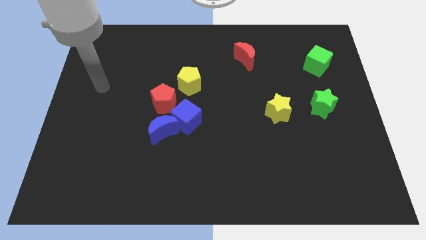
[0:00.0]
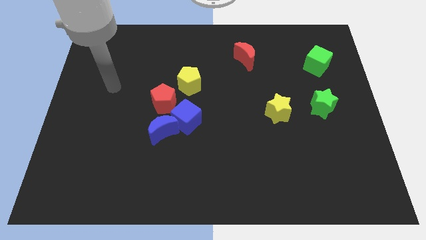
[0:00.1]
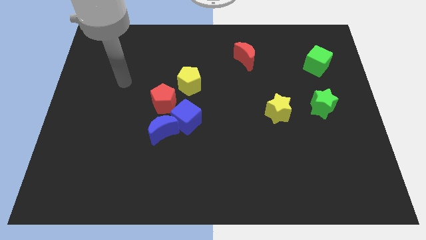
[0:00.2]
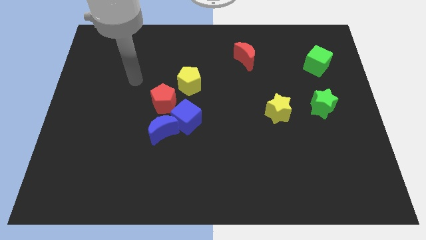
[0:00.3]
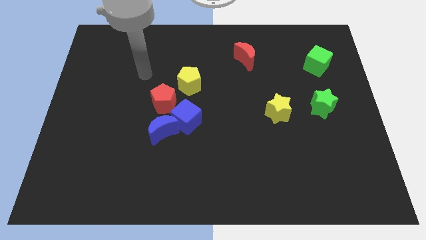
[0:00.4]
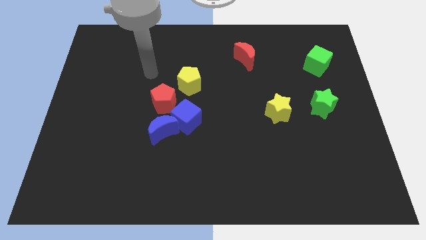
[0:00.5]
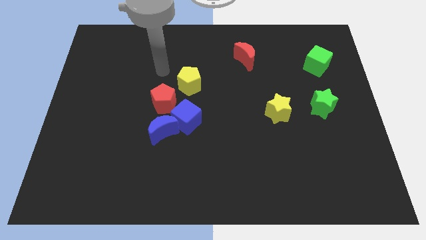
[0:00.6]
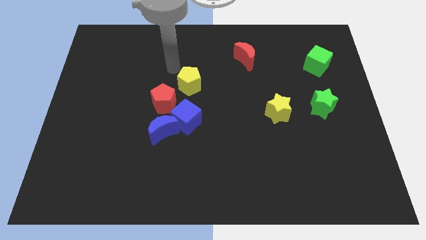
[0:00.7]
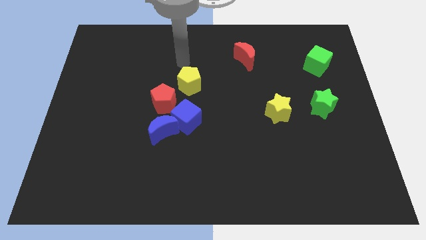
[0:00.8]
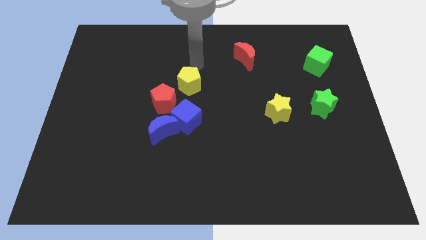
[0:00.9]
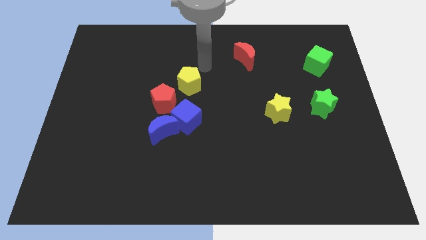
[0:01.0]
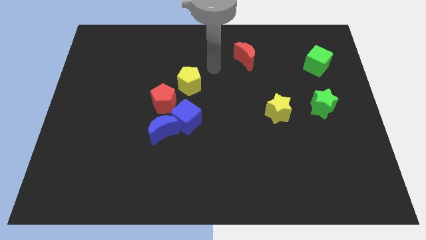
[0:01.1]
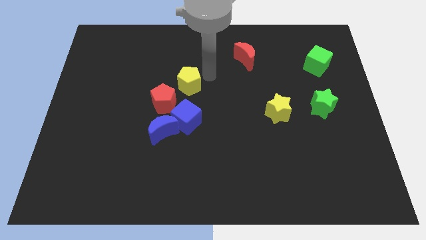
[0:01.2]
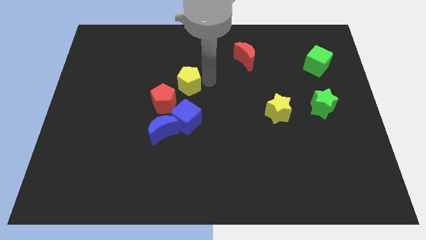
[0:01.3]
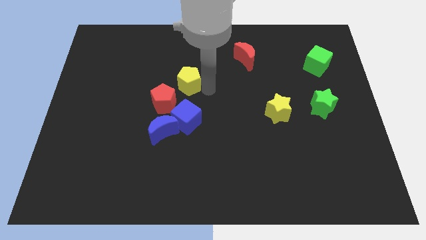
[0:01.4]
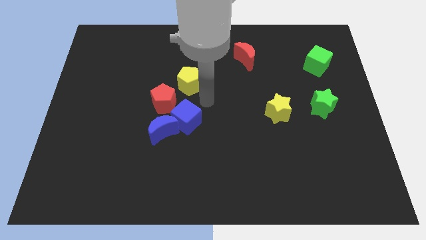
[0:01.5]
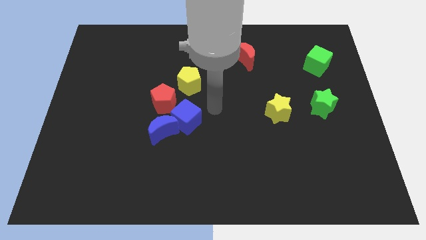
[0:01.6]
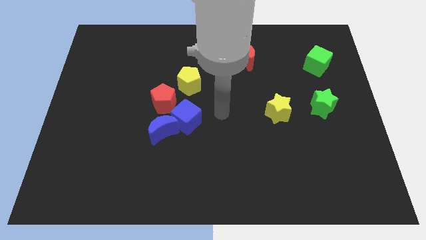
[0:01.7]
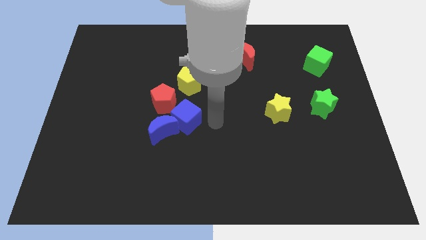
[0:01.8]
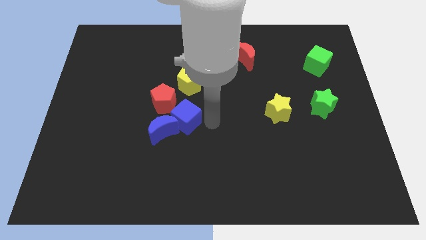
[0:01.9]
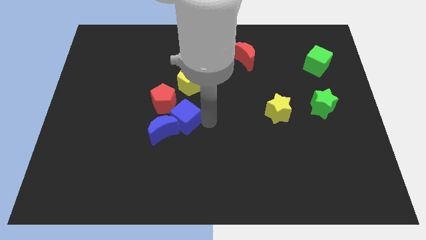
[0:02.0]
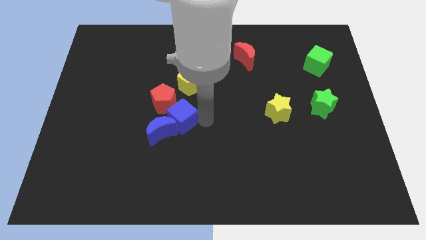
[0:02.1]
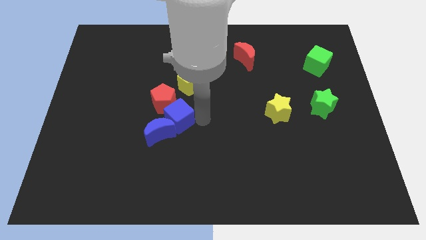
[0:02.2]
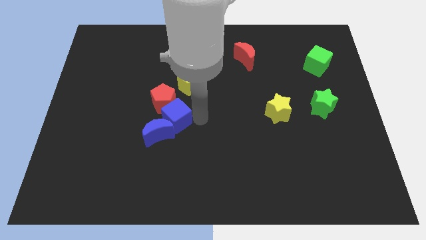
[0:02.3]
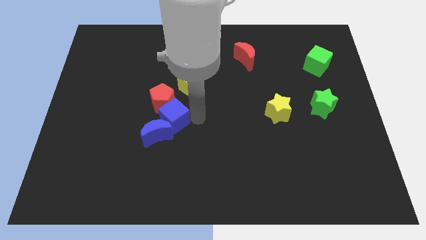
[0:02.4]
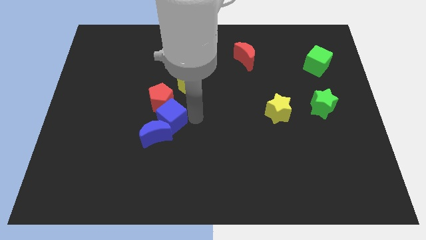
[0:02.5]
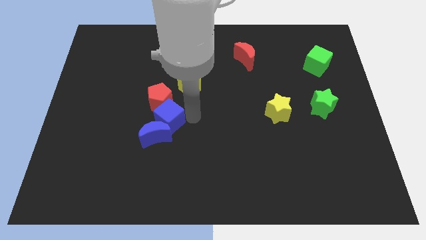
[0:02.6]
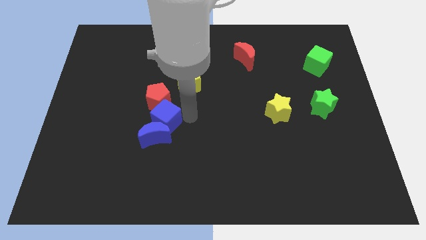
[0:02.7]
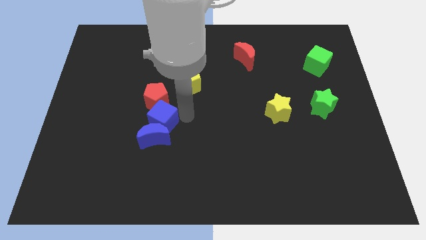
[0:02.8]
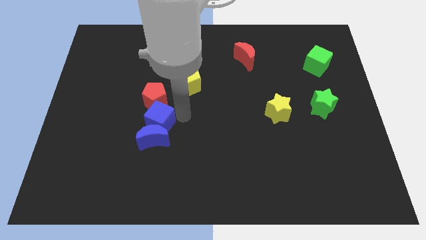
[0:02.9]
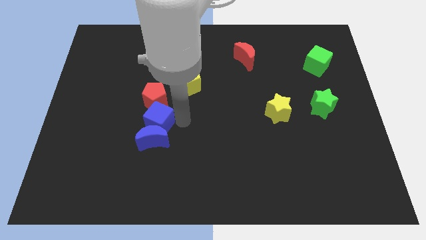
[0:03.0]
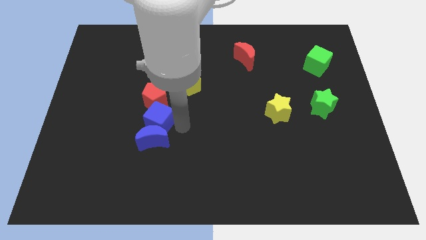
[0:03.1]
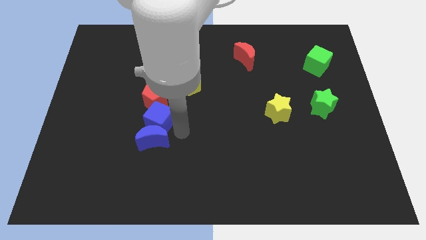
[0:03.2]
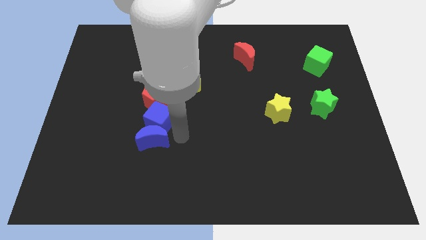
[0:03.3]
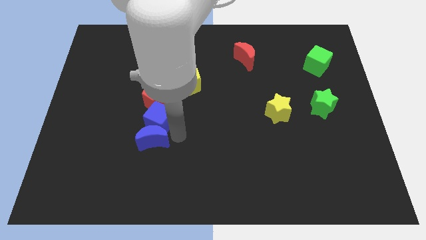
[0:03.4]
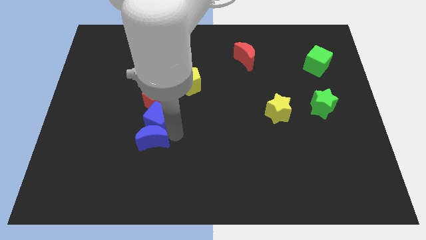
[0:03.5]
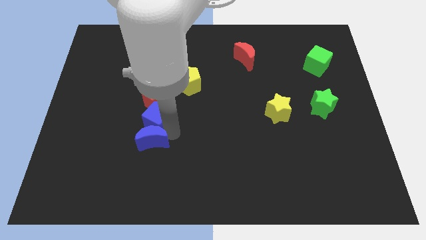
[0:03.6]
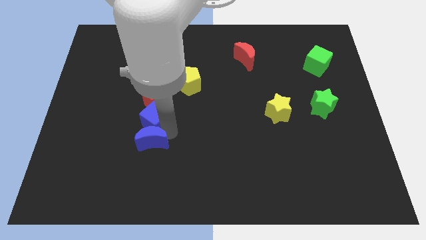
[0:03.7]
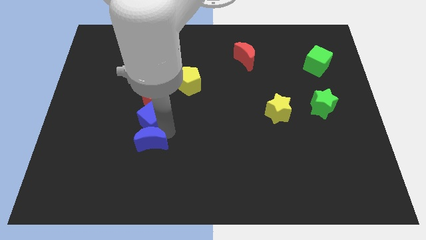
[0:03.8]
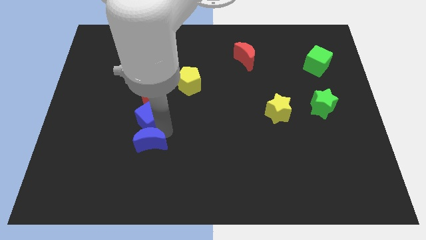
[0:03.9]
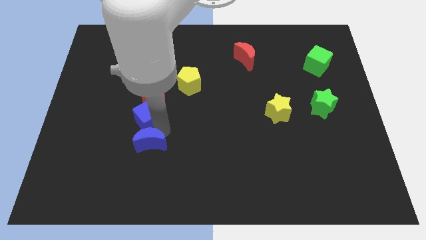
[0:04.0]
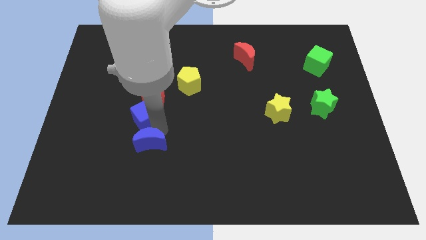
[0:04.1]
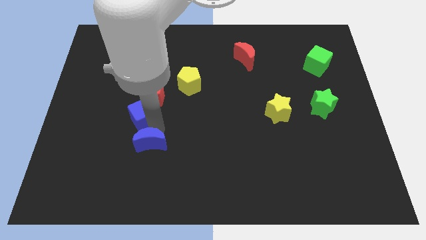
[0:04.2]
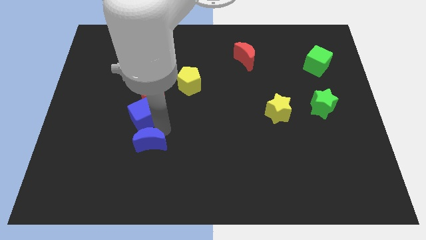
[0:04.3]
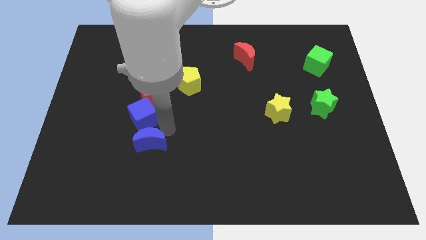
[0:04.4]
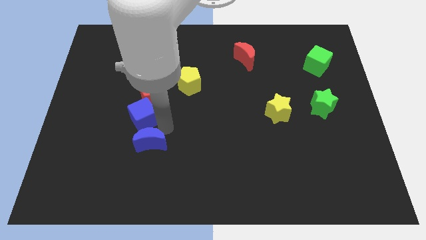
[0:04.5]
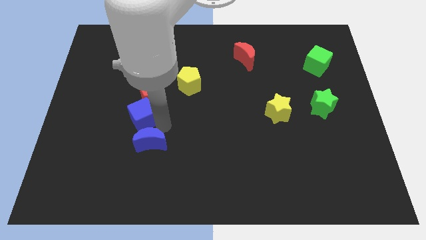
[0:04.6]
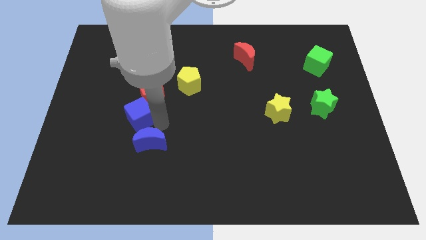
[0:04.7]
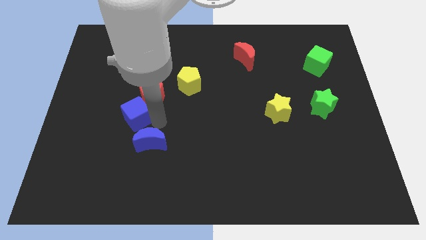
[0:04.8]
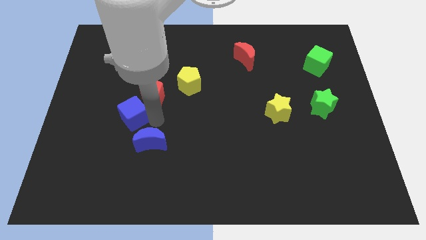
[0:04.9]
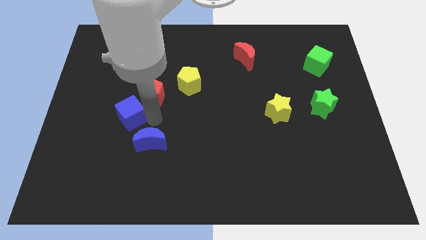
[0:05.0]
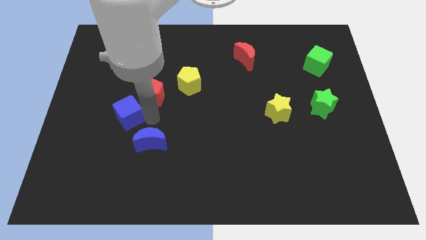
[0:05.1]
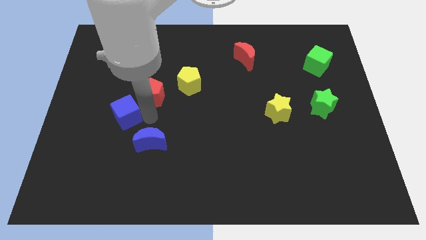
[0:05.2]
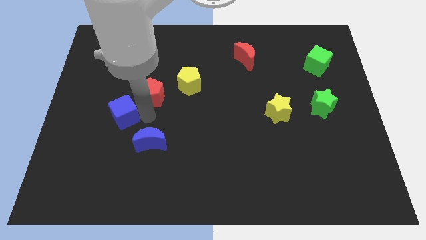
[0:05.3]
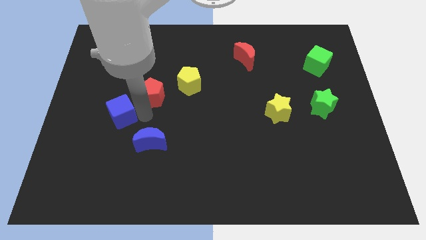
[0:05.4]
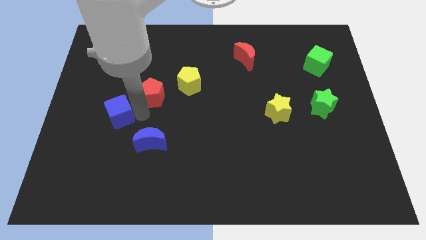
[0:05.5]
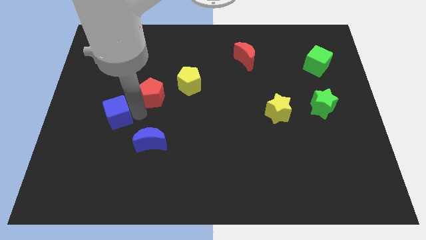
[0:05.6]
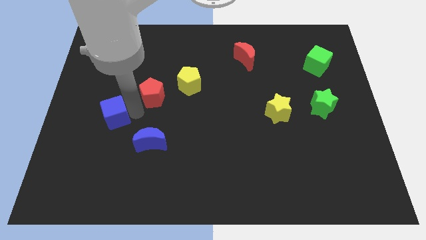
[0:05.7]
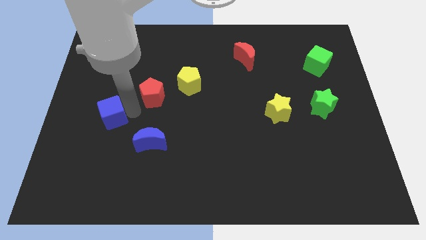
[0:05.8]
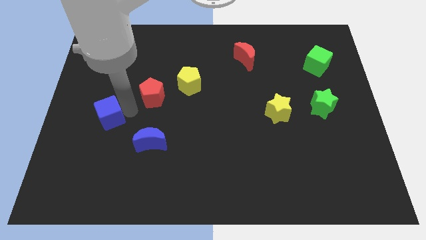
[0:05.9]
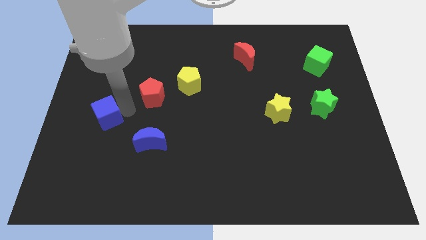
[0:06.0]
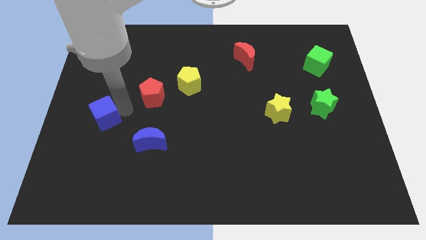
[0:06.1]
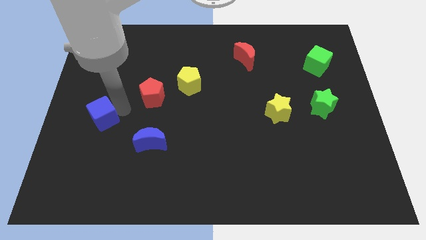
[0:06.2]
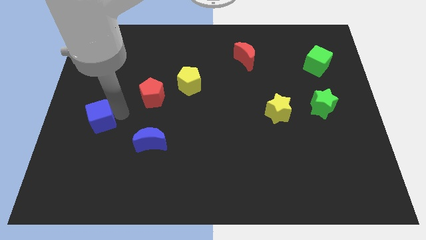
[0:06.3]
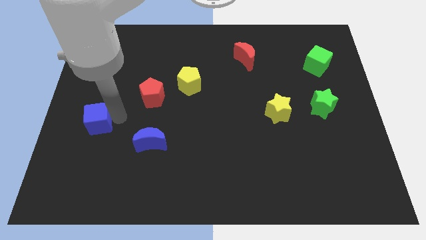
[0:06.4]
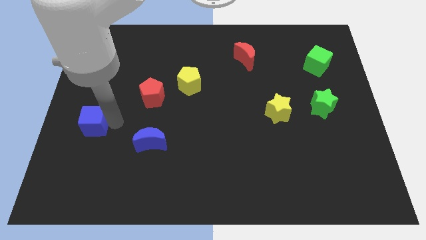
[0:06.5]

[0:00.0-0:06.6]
put the blue cube to the left side of the board
